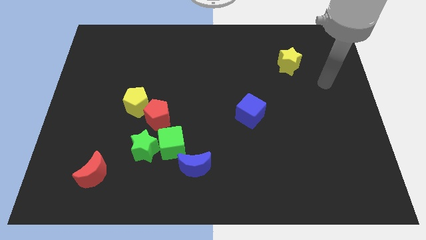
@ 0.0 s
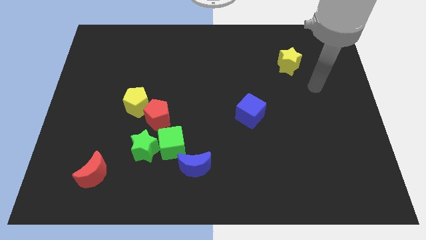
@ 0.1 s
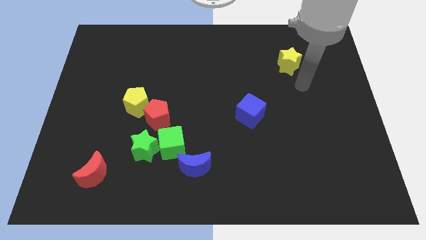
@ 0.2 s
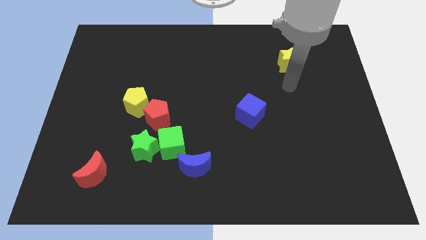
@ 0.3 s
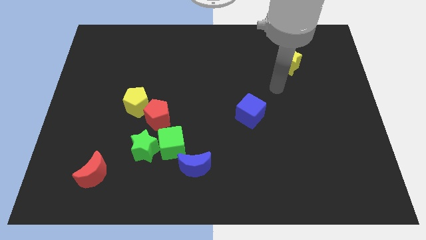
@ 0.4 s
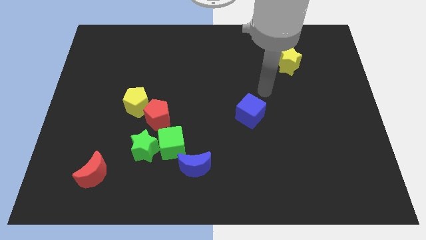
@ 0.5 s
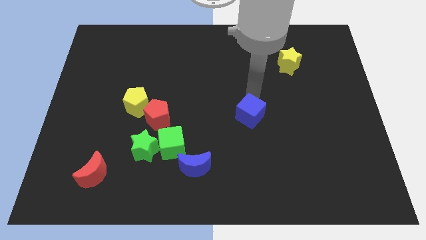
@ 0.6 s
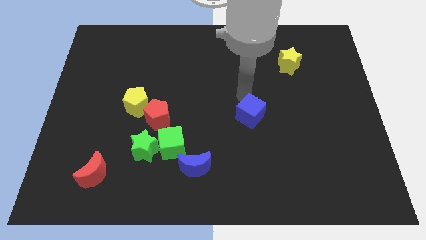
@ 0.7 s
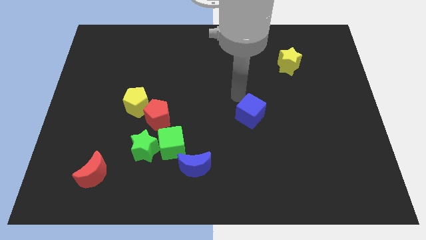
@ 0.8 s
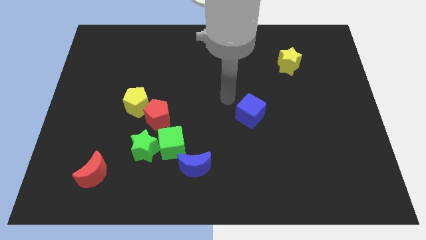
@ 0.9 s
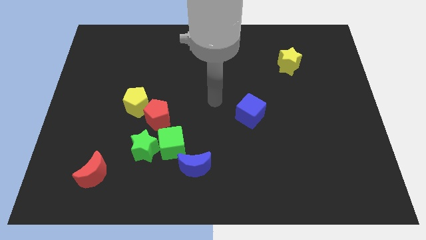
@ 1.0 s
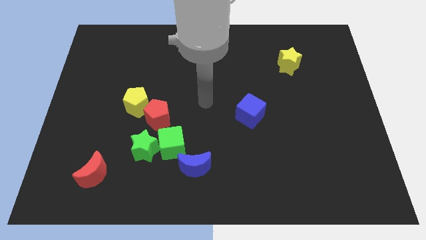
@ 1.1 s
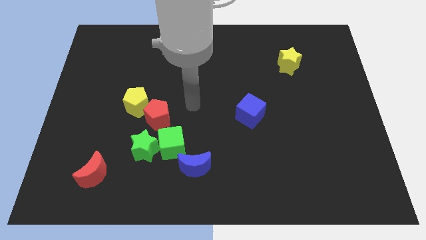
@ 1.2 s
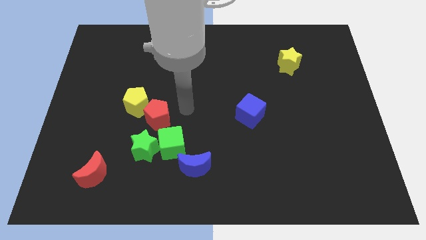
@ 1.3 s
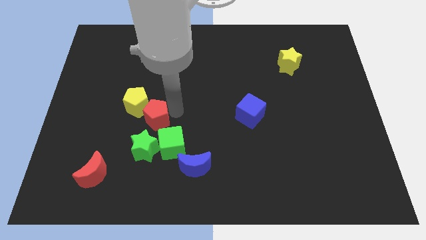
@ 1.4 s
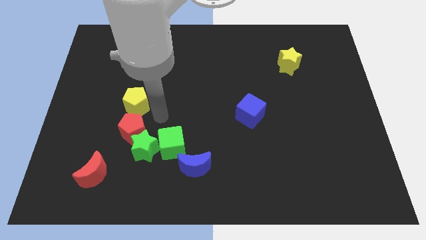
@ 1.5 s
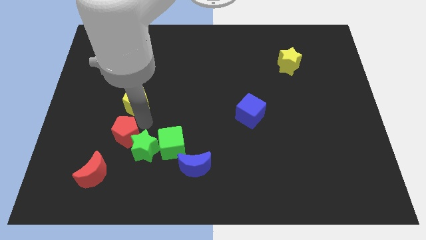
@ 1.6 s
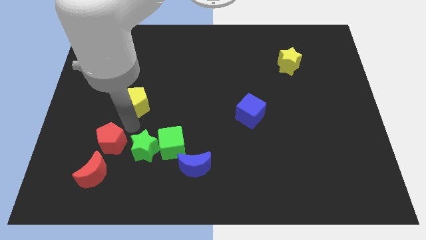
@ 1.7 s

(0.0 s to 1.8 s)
move the yellow pentagon away from the red pentagon

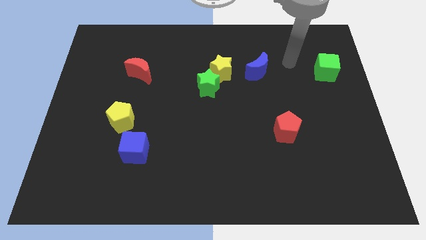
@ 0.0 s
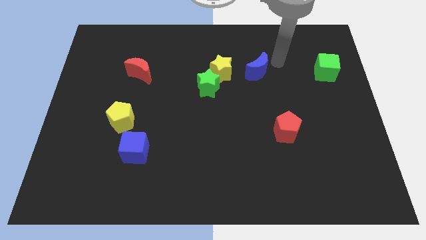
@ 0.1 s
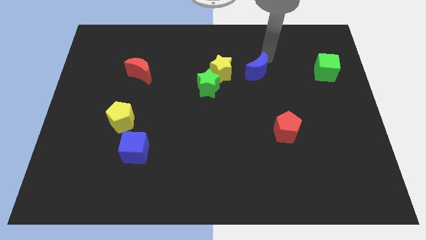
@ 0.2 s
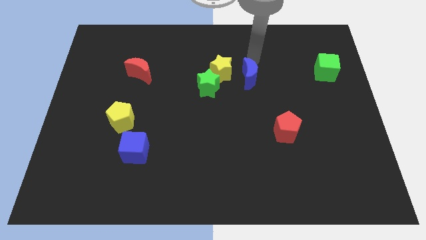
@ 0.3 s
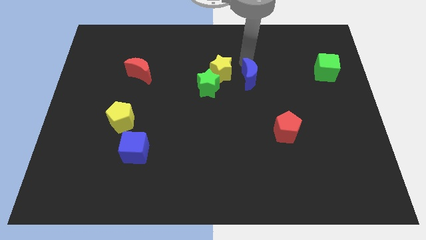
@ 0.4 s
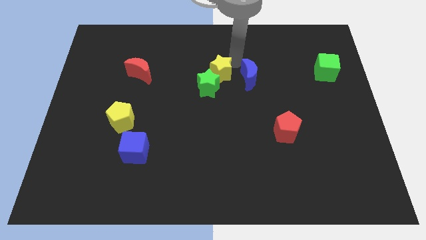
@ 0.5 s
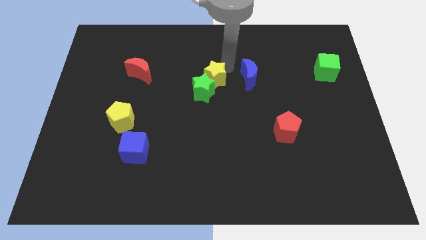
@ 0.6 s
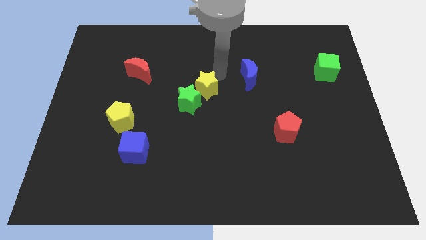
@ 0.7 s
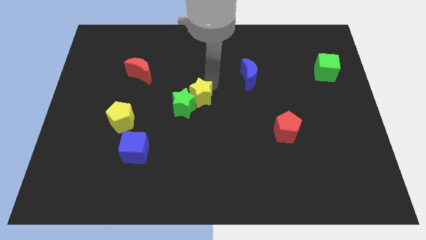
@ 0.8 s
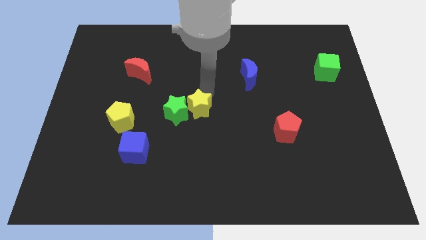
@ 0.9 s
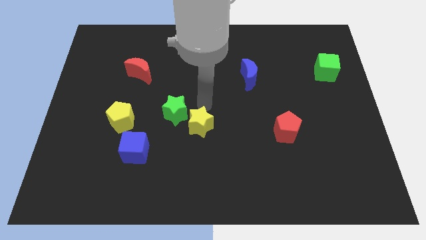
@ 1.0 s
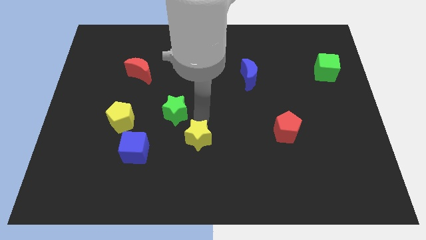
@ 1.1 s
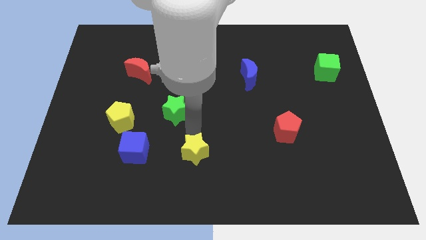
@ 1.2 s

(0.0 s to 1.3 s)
move the green star away from the yellow star

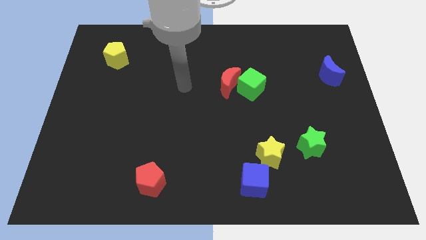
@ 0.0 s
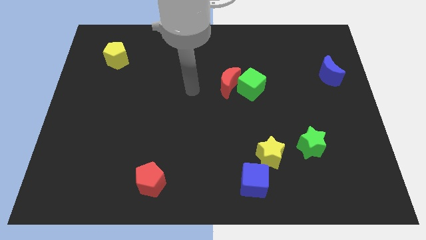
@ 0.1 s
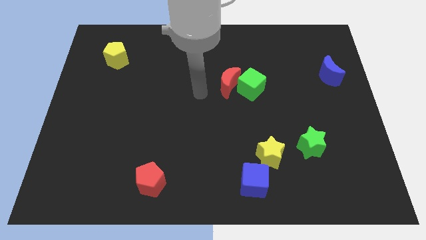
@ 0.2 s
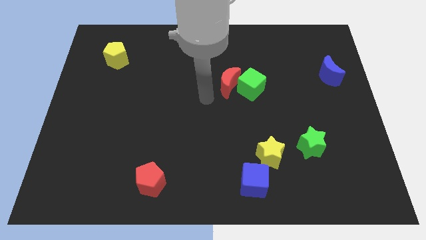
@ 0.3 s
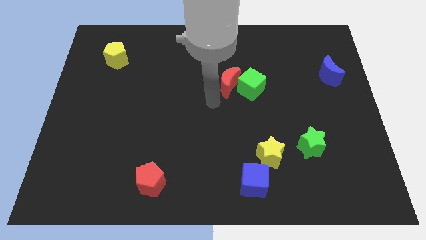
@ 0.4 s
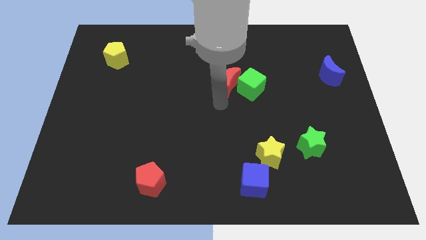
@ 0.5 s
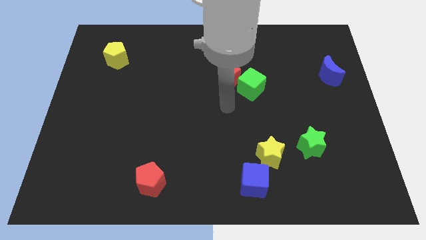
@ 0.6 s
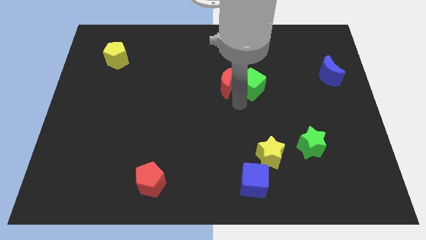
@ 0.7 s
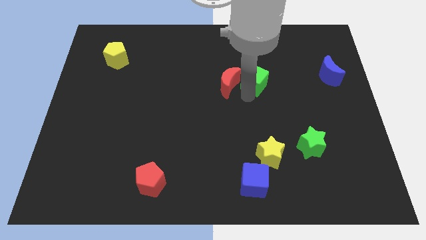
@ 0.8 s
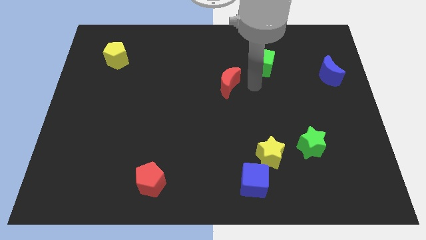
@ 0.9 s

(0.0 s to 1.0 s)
pull the red moon apart from the green cube

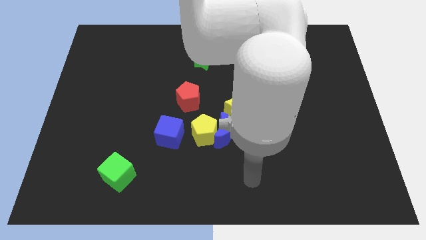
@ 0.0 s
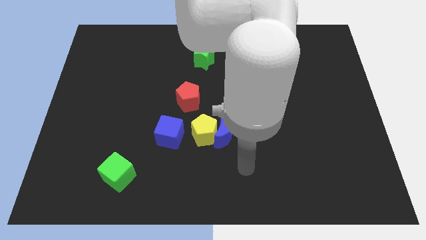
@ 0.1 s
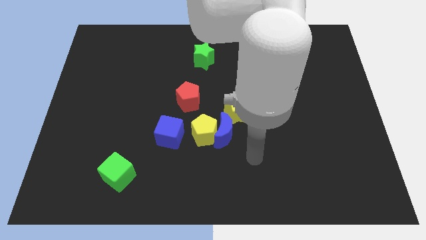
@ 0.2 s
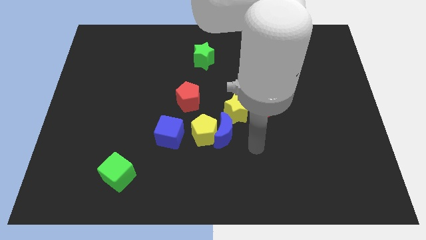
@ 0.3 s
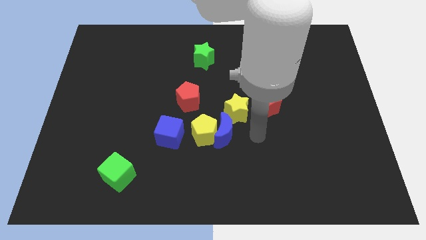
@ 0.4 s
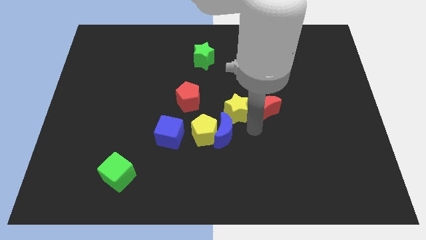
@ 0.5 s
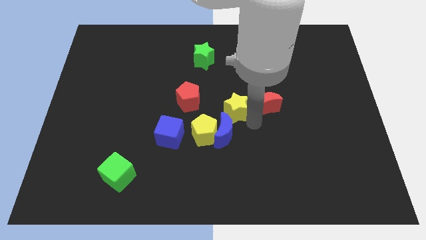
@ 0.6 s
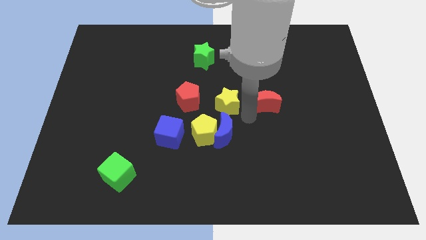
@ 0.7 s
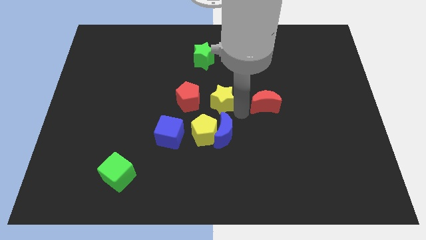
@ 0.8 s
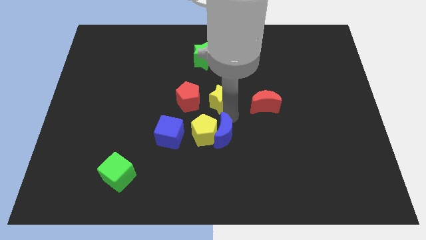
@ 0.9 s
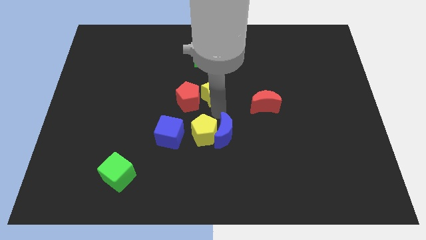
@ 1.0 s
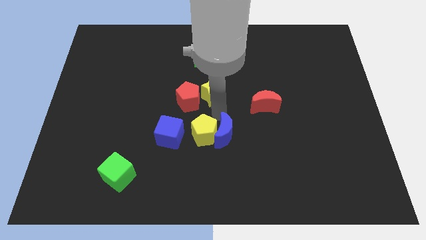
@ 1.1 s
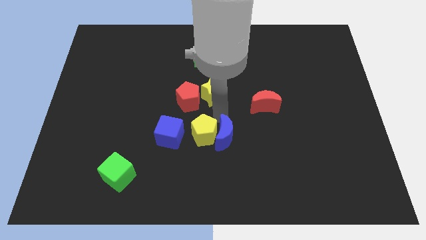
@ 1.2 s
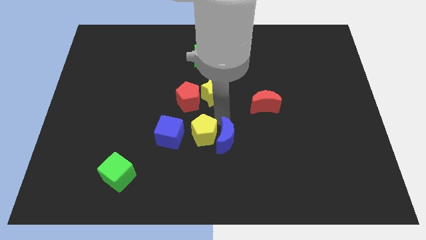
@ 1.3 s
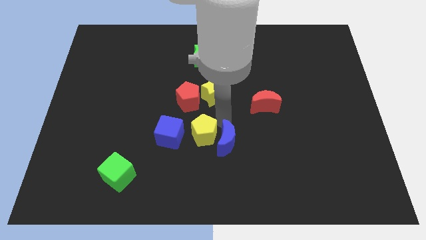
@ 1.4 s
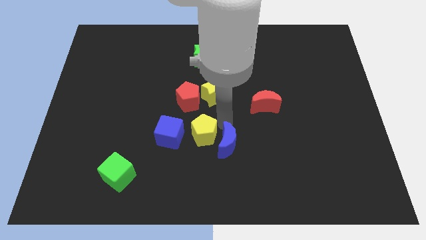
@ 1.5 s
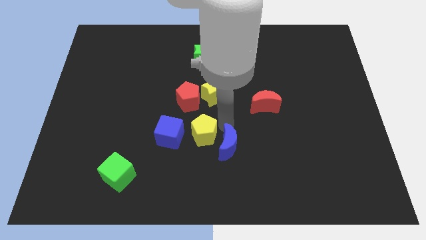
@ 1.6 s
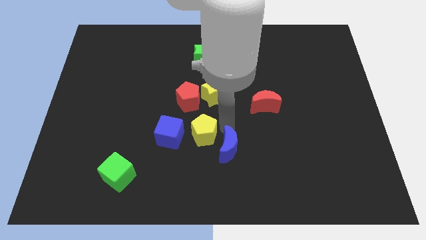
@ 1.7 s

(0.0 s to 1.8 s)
move the blue moon away from the yellow pentagon and yellow star

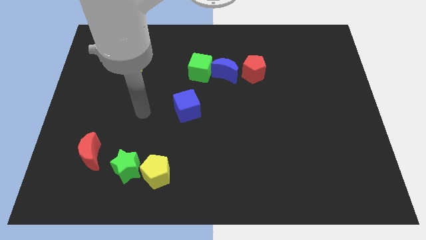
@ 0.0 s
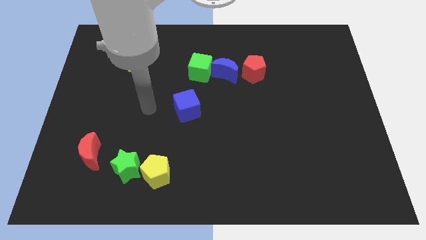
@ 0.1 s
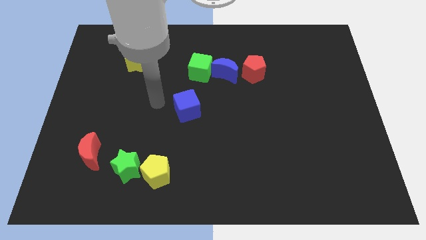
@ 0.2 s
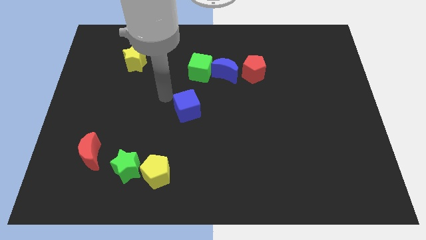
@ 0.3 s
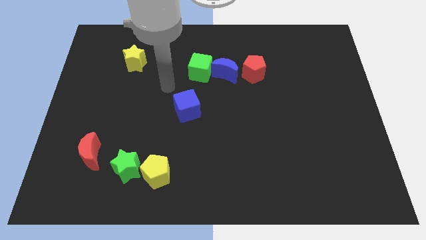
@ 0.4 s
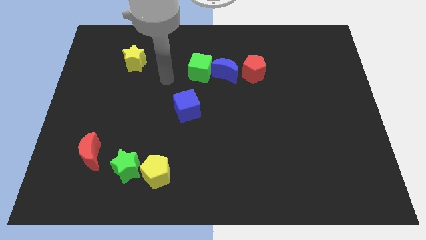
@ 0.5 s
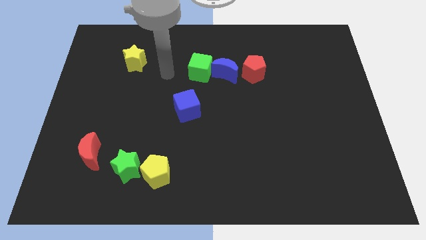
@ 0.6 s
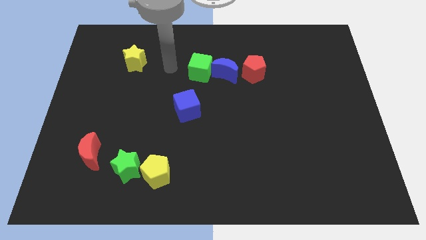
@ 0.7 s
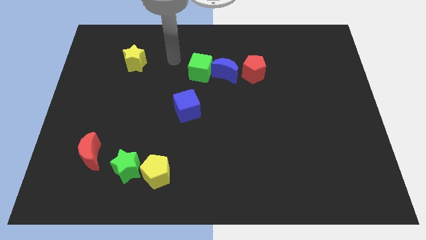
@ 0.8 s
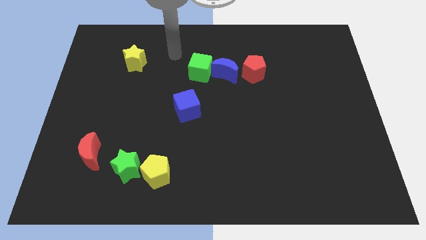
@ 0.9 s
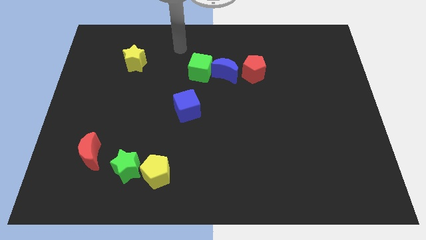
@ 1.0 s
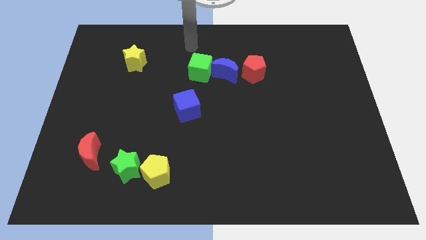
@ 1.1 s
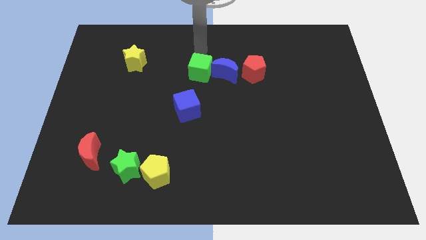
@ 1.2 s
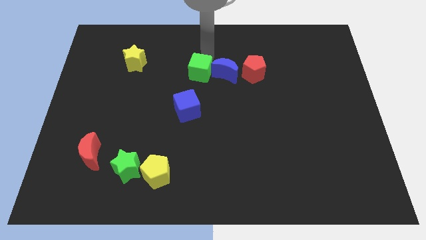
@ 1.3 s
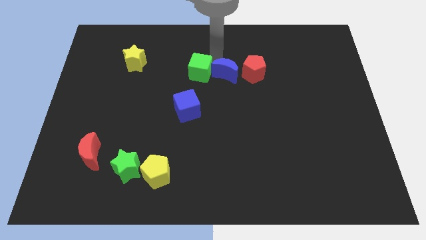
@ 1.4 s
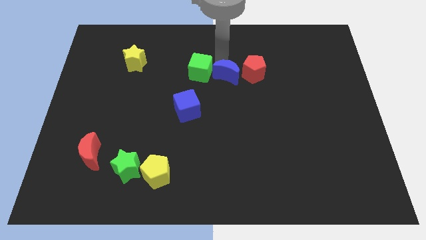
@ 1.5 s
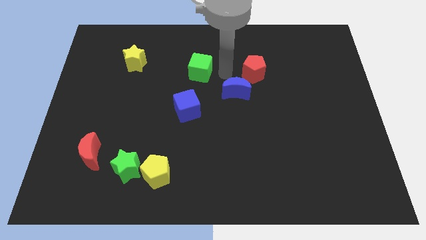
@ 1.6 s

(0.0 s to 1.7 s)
move the green cube away from the blue moon

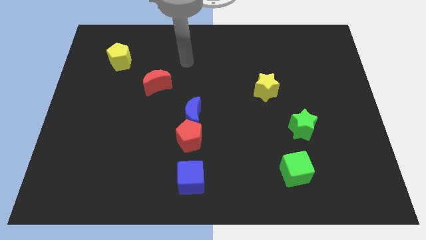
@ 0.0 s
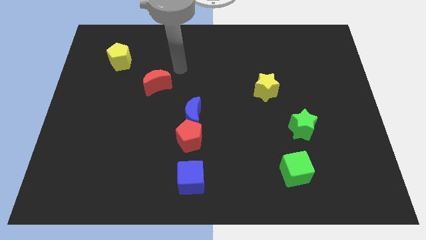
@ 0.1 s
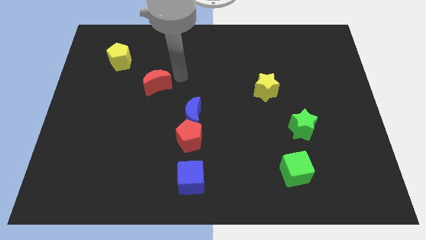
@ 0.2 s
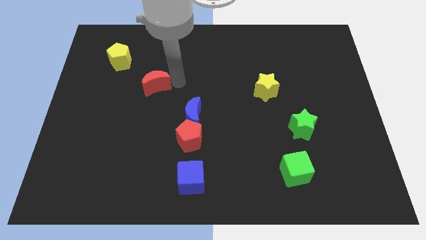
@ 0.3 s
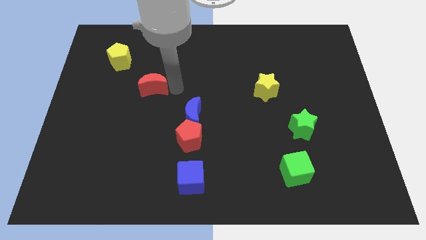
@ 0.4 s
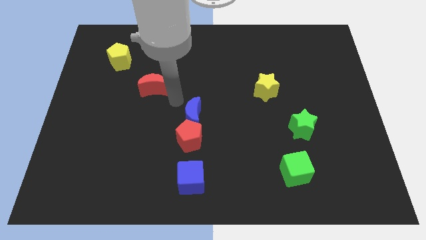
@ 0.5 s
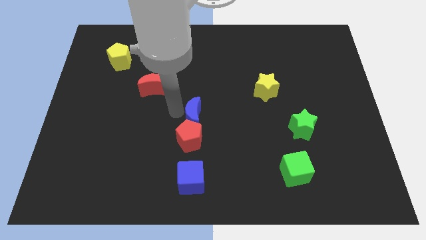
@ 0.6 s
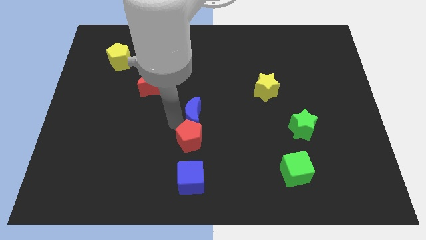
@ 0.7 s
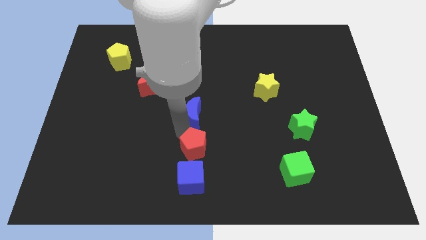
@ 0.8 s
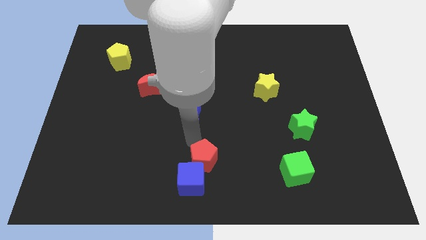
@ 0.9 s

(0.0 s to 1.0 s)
move the blue moon away from the red pentagon

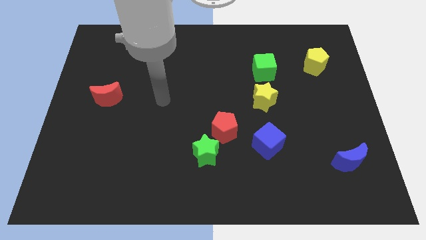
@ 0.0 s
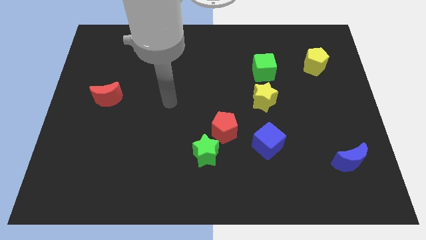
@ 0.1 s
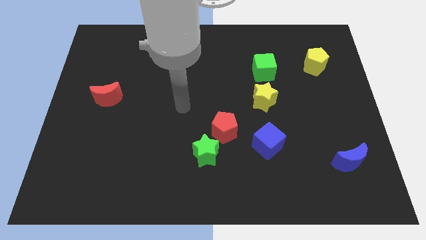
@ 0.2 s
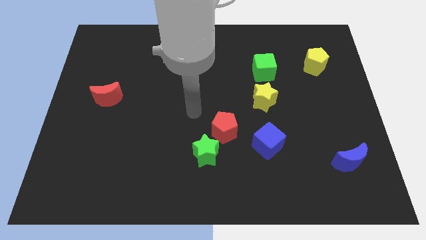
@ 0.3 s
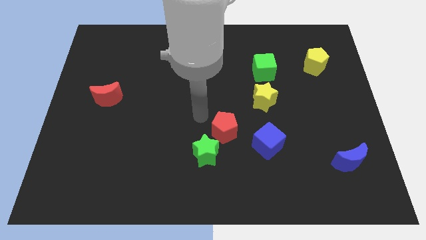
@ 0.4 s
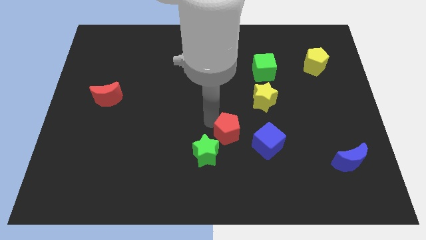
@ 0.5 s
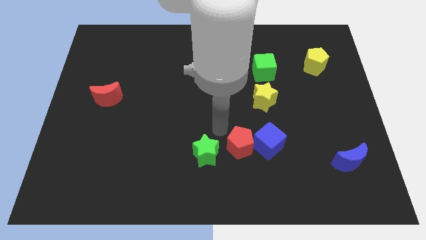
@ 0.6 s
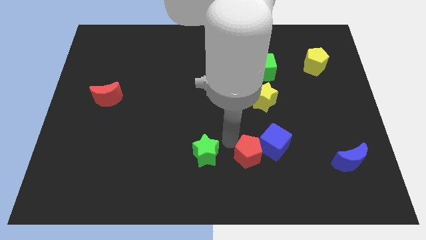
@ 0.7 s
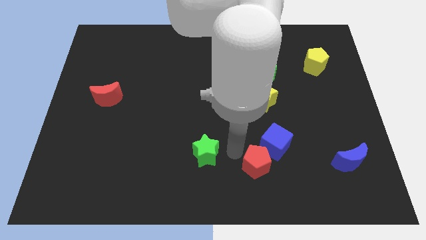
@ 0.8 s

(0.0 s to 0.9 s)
move the green star away from the red pentagon
